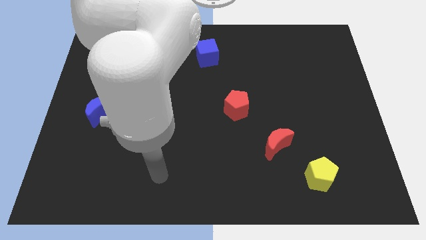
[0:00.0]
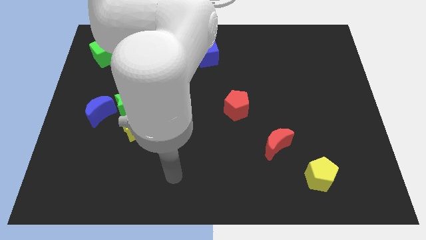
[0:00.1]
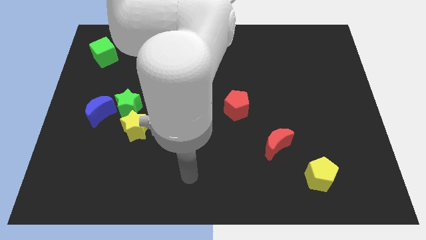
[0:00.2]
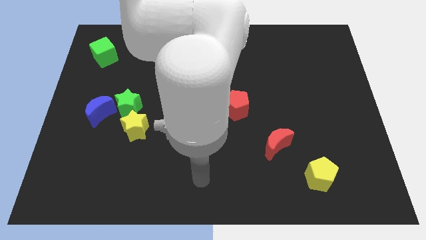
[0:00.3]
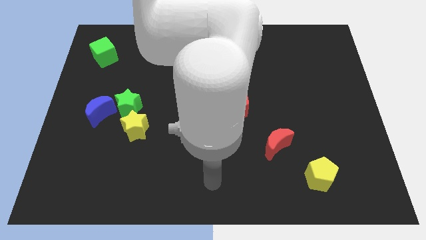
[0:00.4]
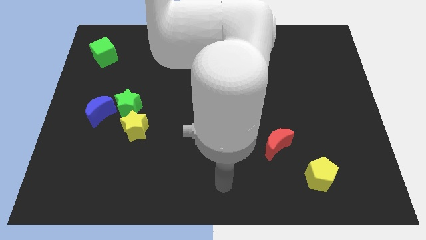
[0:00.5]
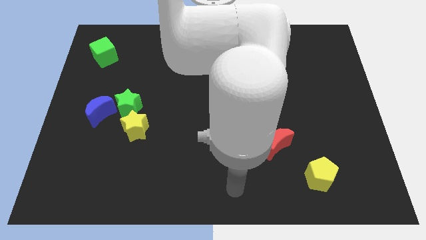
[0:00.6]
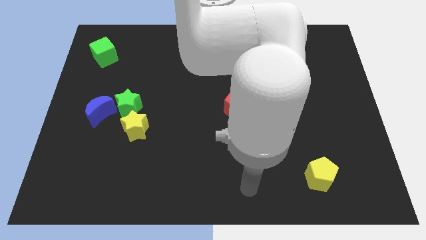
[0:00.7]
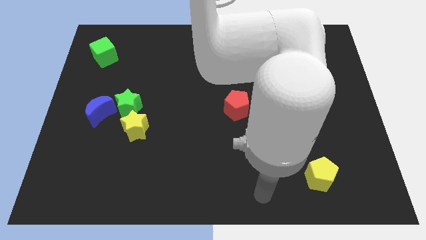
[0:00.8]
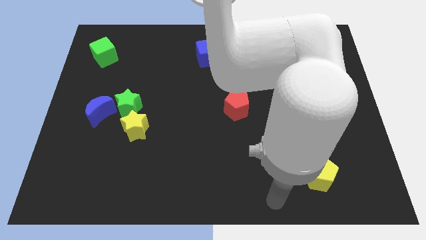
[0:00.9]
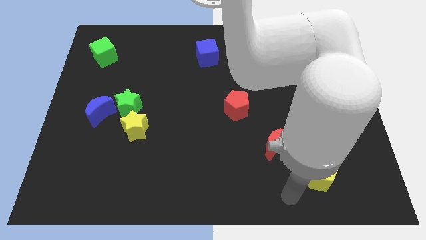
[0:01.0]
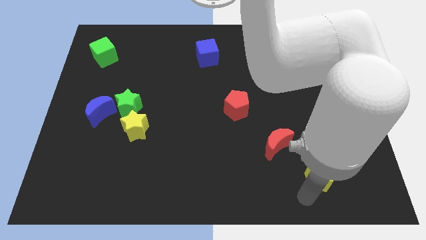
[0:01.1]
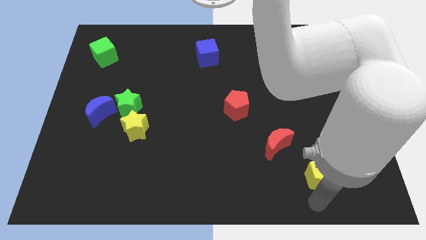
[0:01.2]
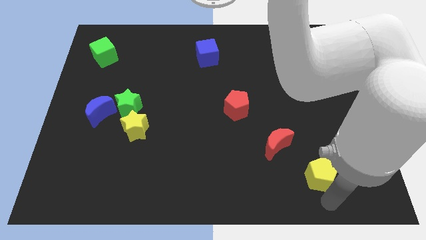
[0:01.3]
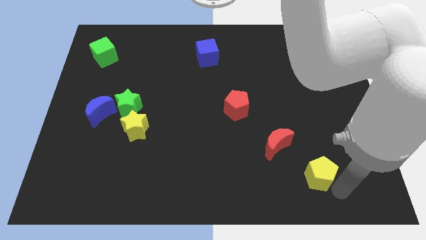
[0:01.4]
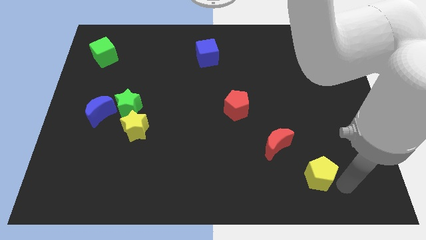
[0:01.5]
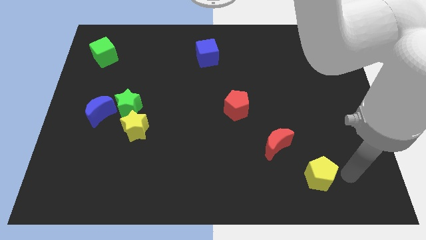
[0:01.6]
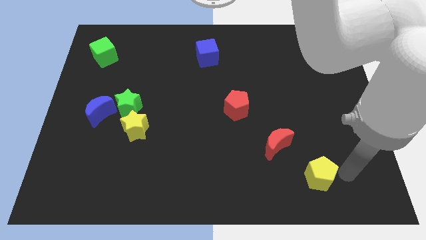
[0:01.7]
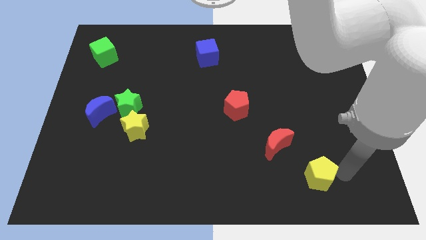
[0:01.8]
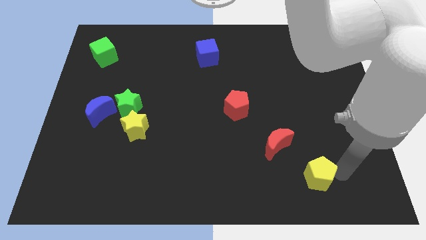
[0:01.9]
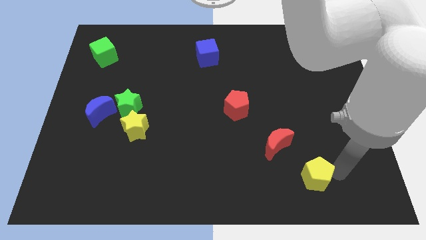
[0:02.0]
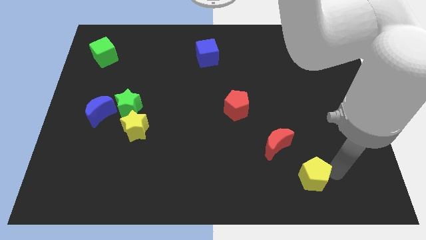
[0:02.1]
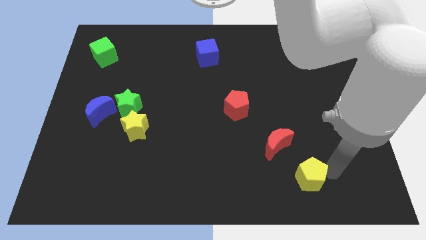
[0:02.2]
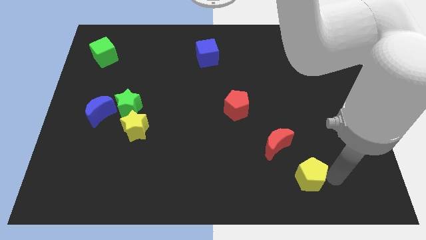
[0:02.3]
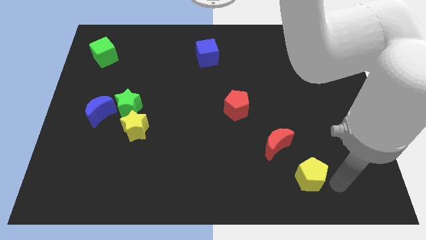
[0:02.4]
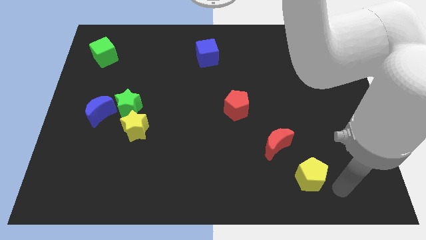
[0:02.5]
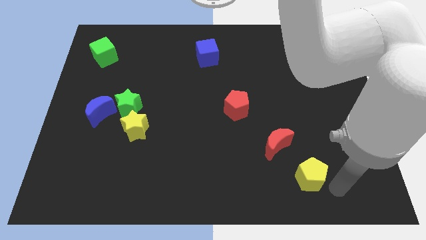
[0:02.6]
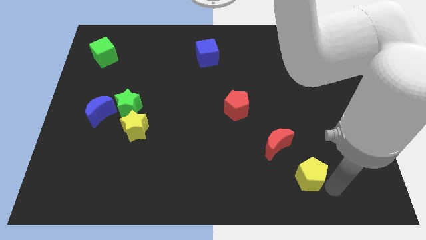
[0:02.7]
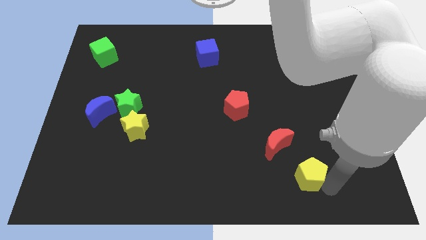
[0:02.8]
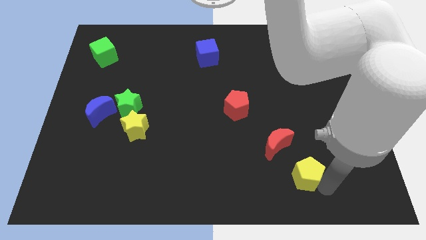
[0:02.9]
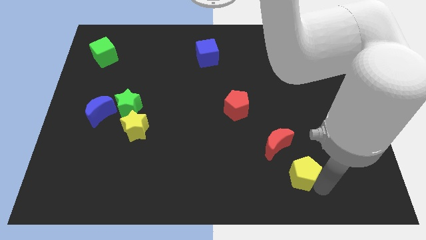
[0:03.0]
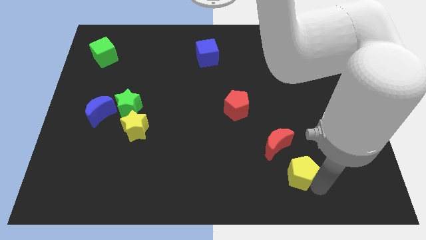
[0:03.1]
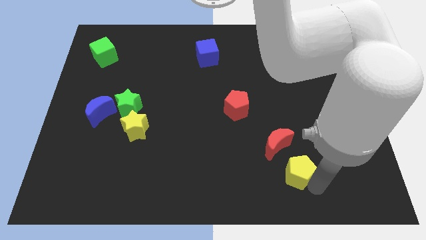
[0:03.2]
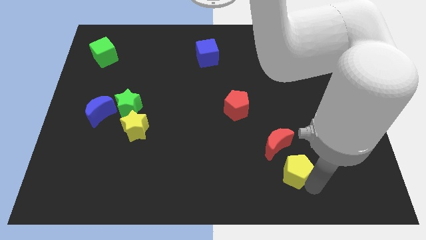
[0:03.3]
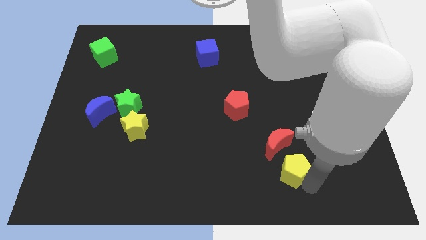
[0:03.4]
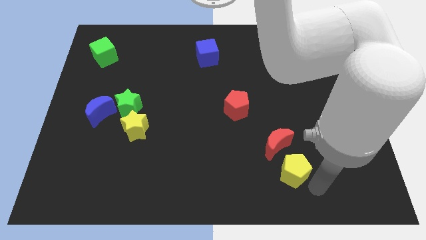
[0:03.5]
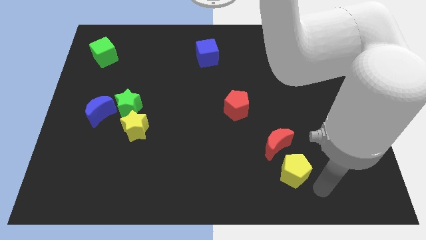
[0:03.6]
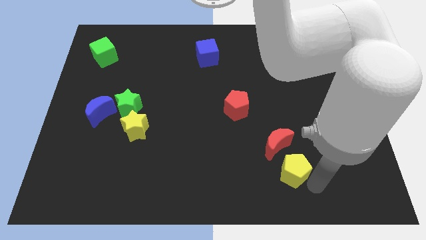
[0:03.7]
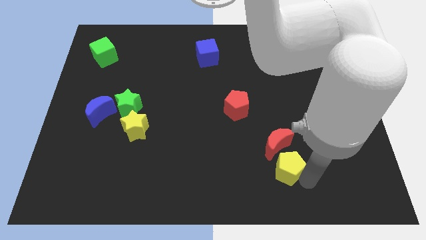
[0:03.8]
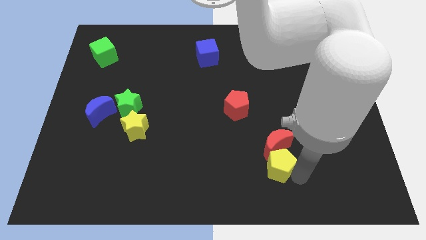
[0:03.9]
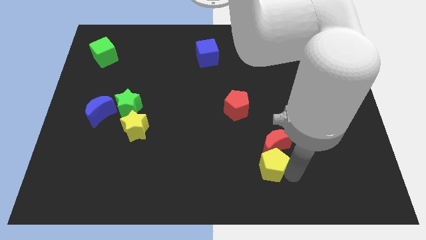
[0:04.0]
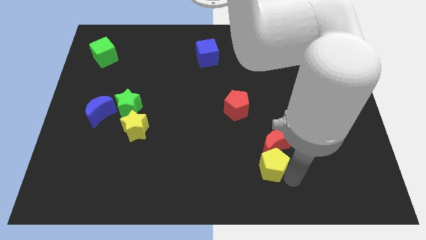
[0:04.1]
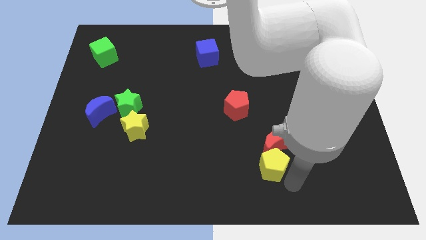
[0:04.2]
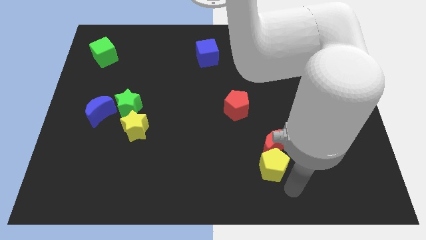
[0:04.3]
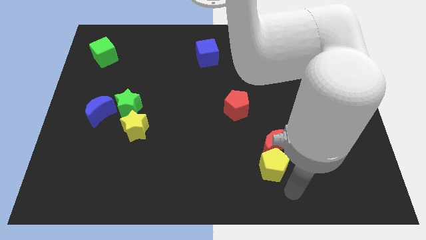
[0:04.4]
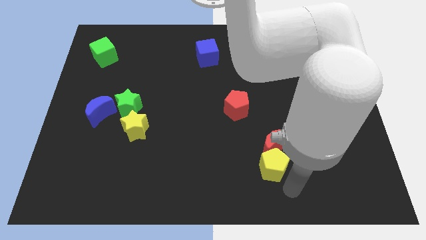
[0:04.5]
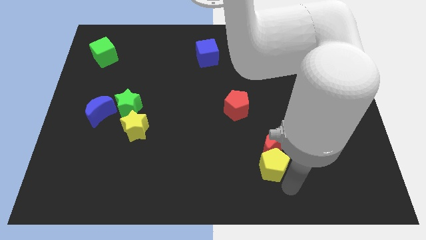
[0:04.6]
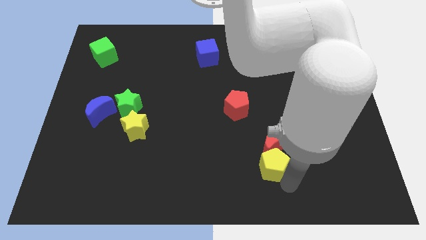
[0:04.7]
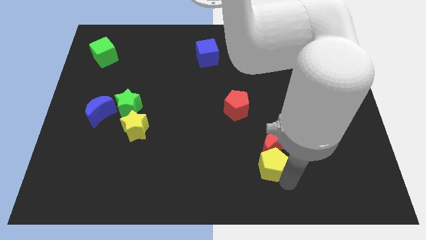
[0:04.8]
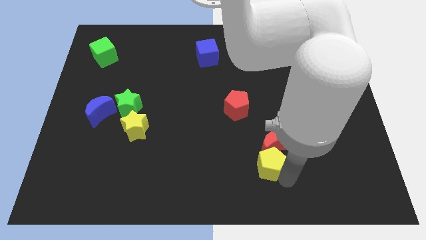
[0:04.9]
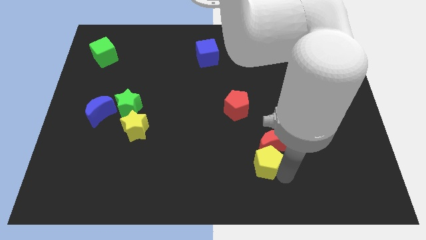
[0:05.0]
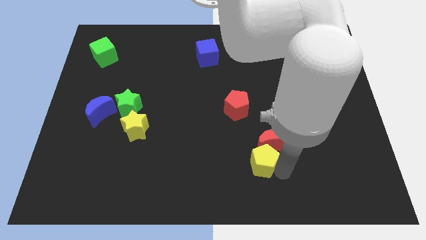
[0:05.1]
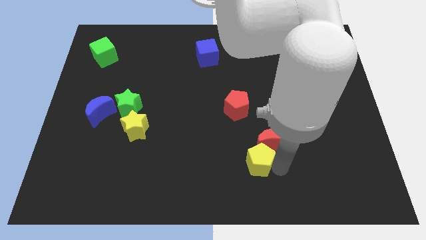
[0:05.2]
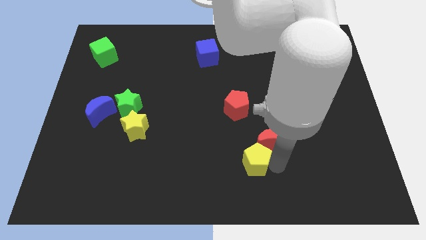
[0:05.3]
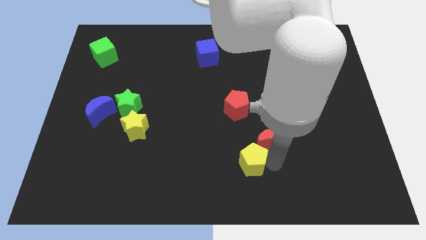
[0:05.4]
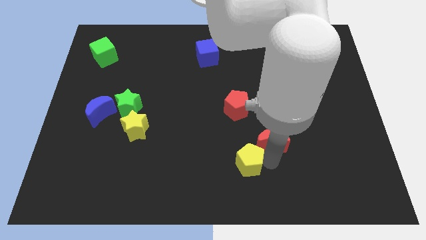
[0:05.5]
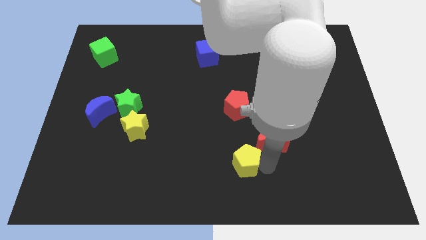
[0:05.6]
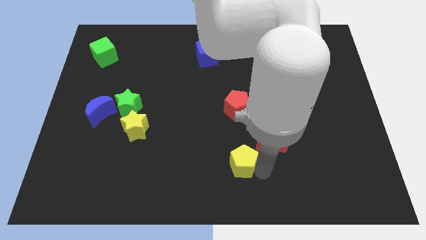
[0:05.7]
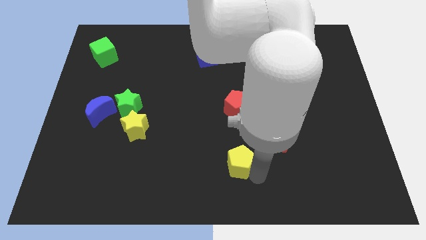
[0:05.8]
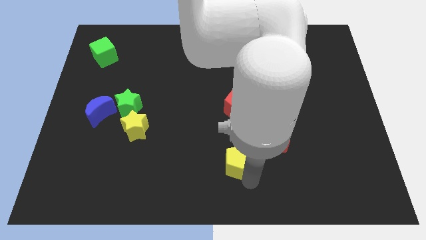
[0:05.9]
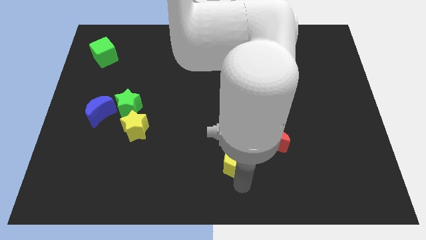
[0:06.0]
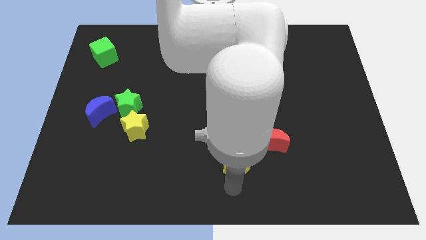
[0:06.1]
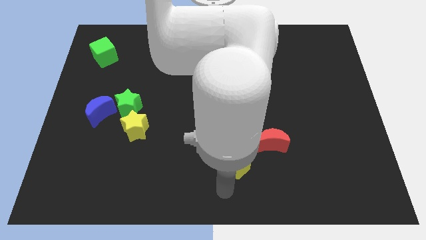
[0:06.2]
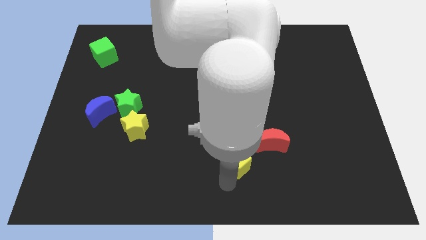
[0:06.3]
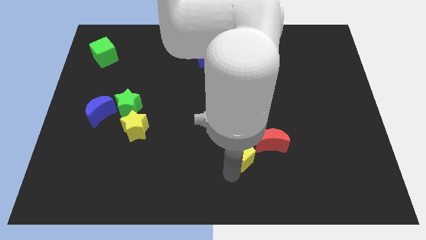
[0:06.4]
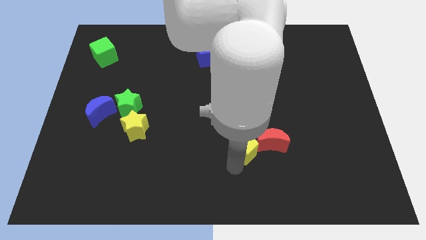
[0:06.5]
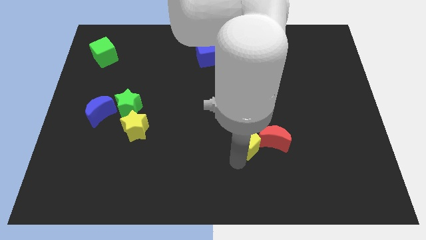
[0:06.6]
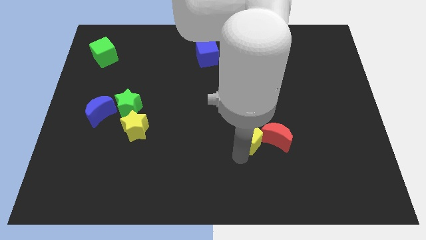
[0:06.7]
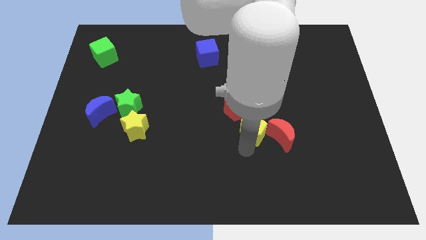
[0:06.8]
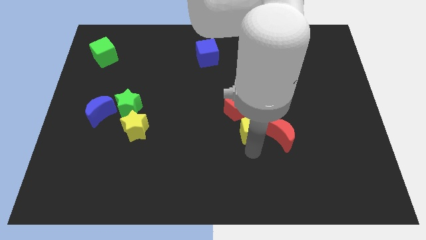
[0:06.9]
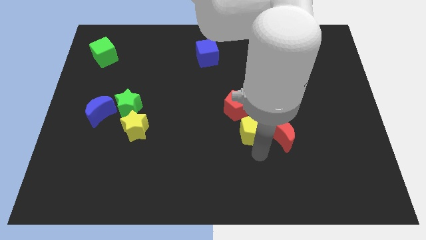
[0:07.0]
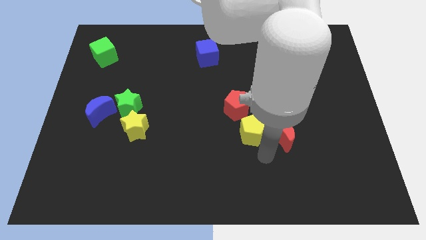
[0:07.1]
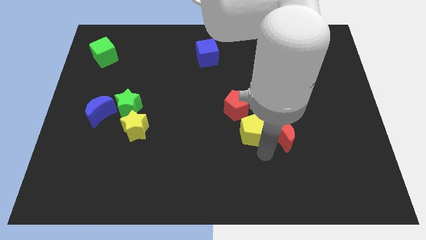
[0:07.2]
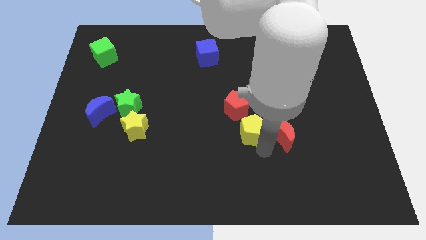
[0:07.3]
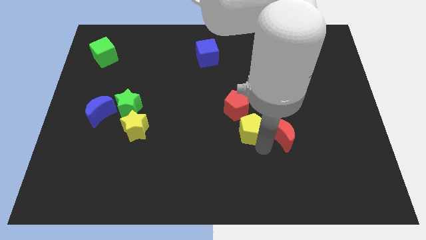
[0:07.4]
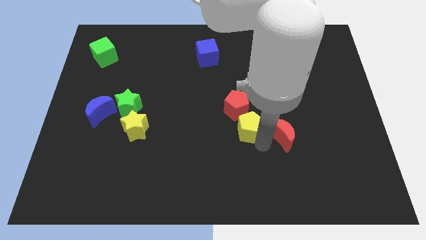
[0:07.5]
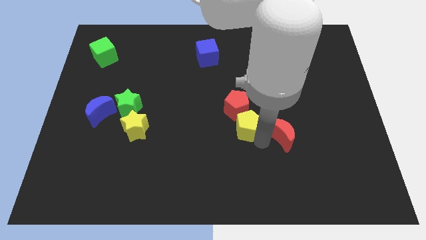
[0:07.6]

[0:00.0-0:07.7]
put the yellow pentagon next to the red pentagon
